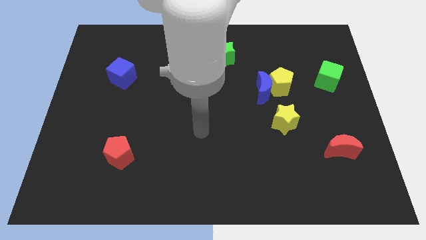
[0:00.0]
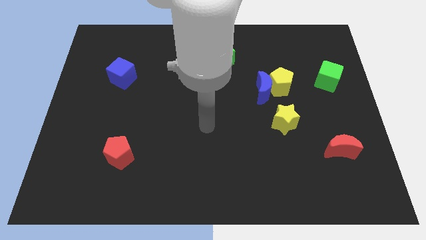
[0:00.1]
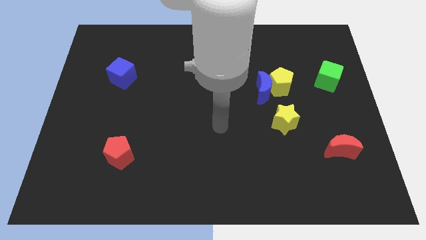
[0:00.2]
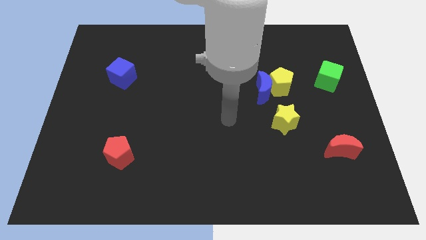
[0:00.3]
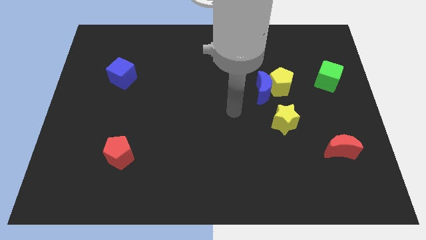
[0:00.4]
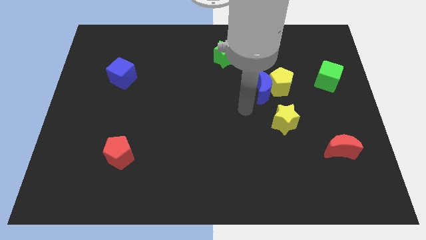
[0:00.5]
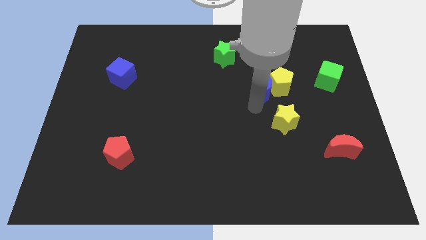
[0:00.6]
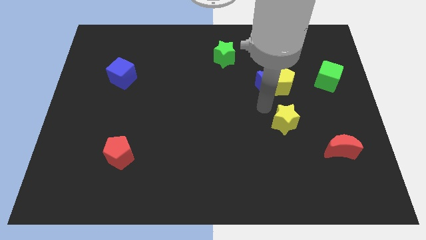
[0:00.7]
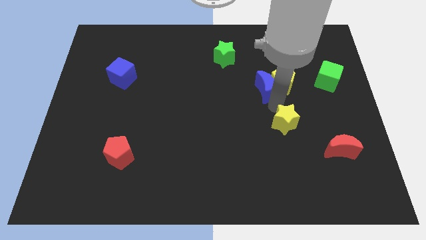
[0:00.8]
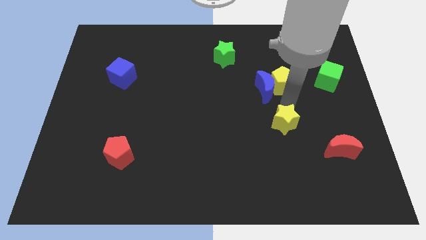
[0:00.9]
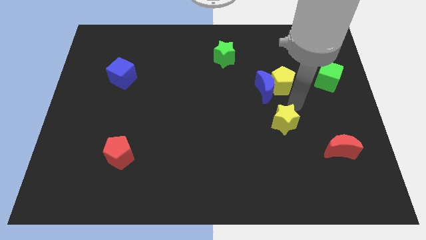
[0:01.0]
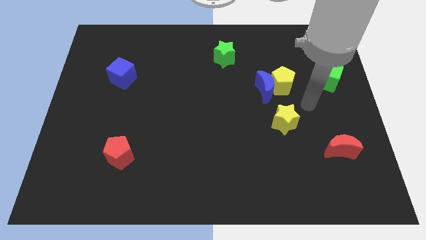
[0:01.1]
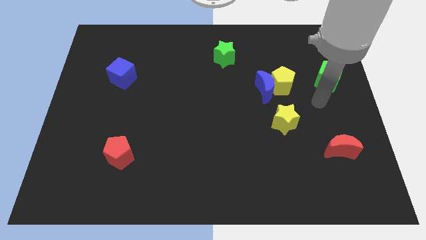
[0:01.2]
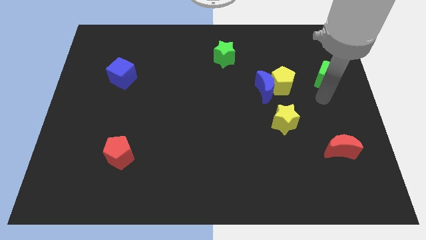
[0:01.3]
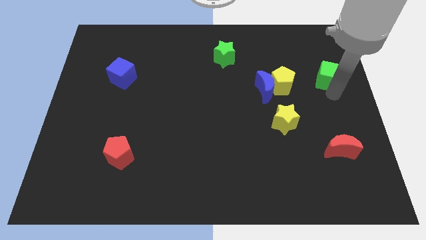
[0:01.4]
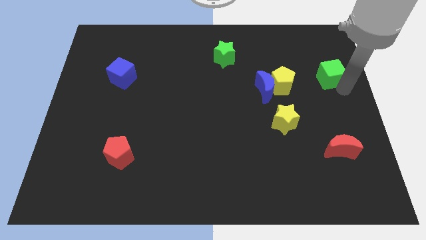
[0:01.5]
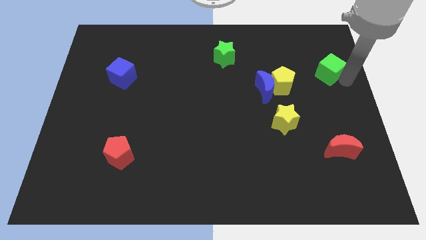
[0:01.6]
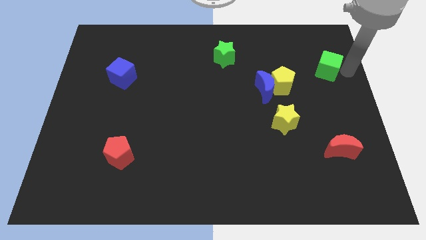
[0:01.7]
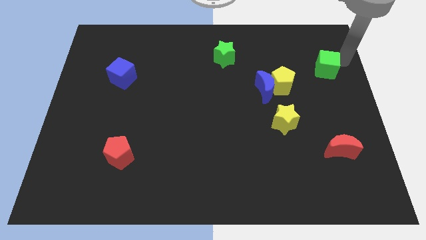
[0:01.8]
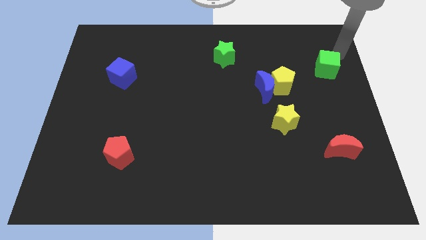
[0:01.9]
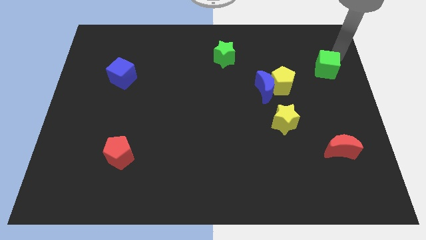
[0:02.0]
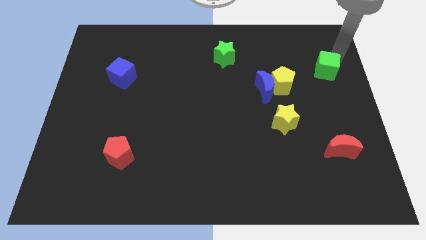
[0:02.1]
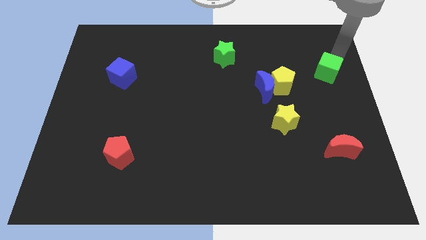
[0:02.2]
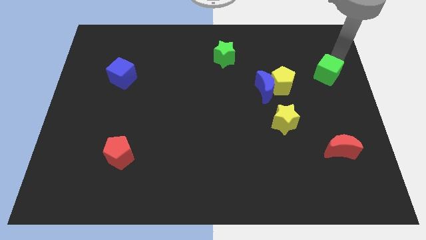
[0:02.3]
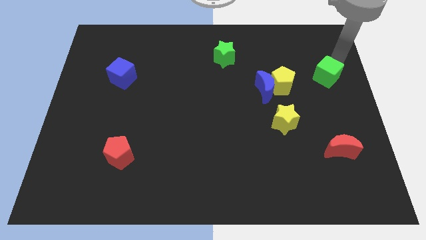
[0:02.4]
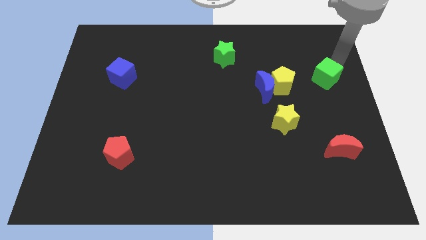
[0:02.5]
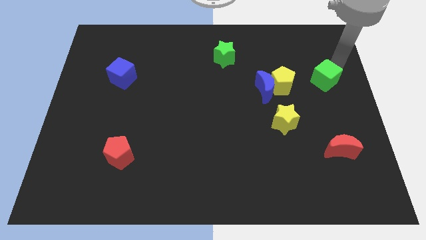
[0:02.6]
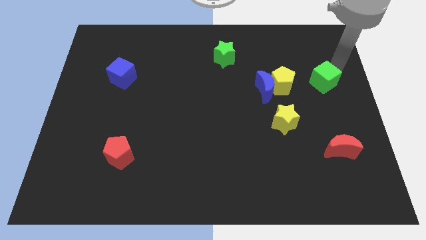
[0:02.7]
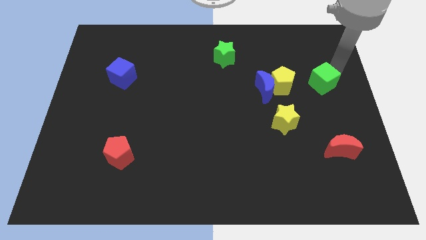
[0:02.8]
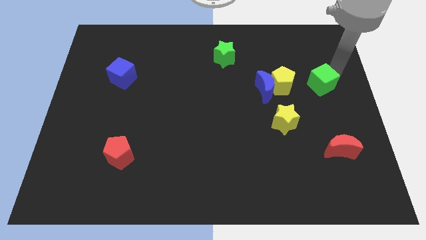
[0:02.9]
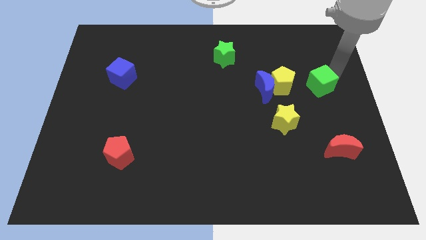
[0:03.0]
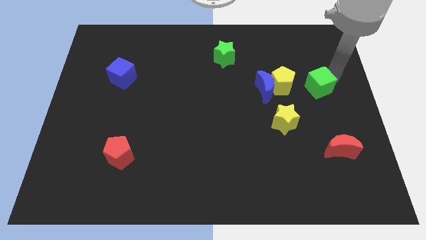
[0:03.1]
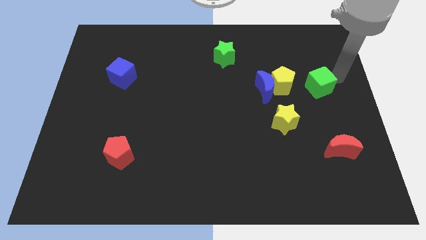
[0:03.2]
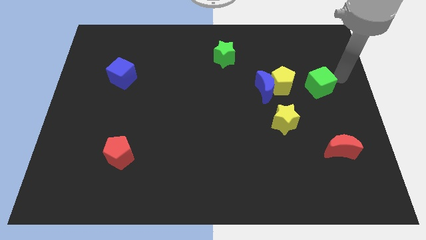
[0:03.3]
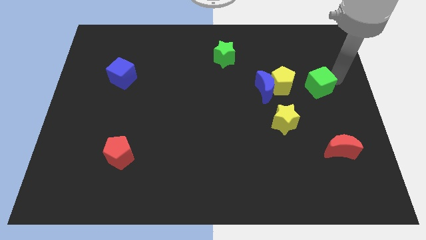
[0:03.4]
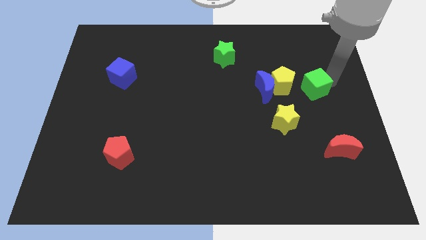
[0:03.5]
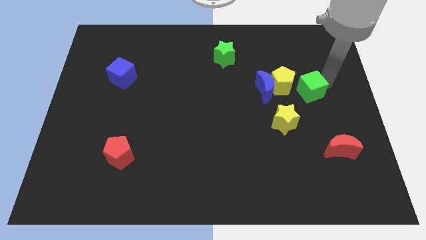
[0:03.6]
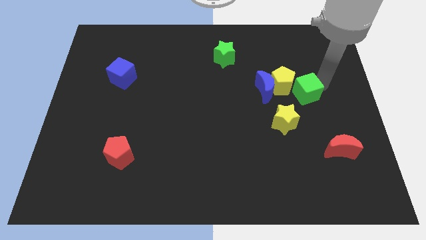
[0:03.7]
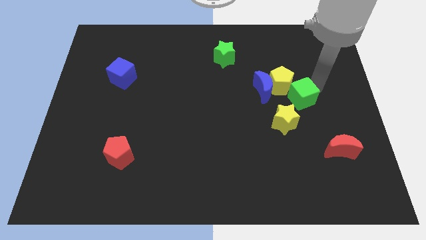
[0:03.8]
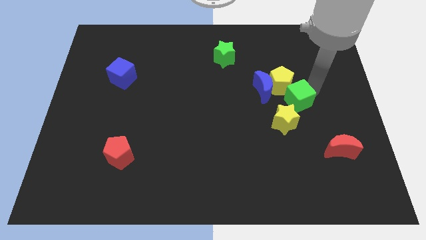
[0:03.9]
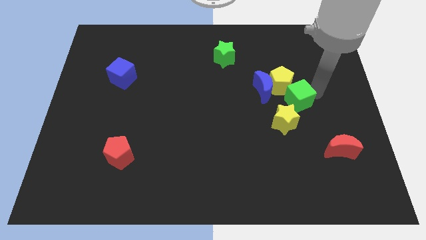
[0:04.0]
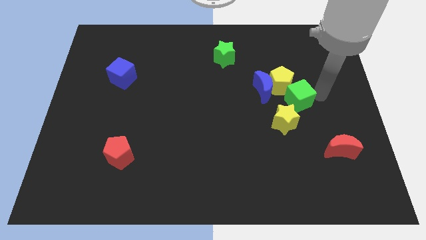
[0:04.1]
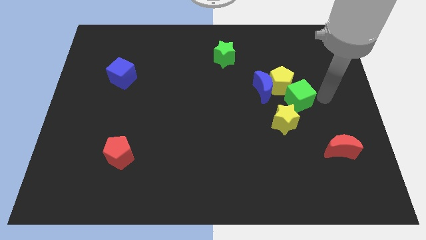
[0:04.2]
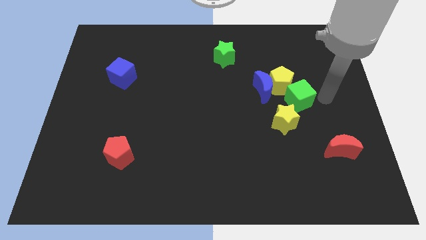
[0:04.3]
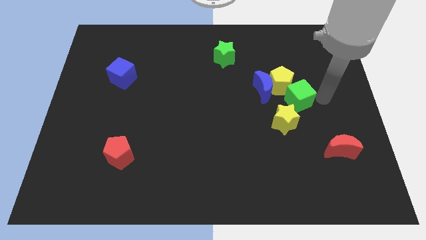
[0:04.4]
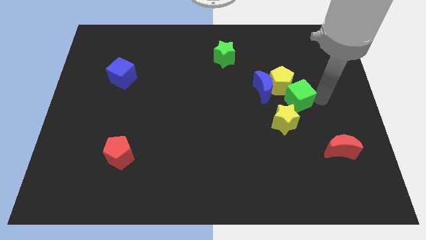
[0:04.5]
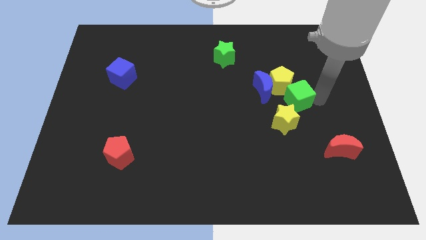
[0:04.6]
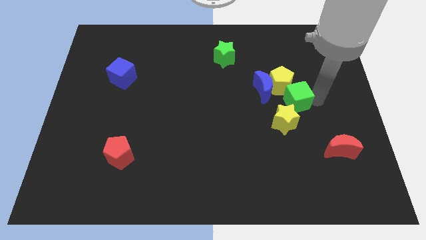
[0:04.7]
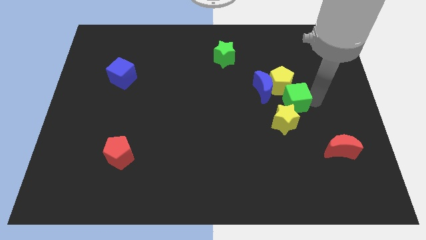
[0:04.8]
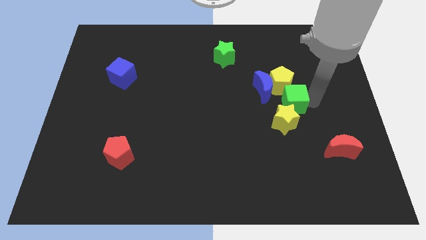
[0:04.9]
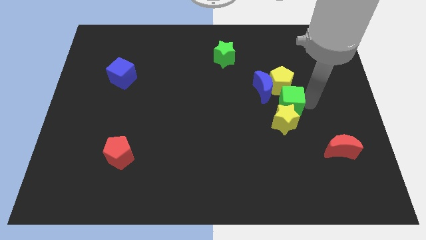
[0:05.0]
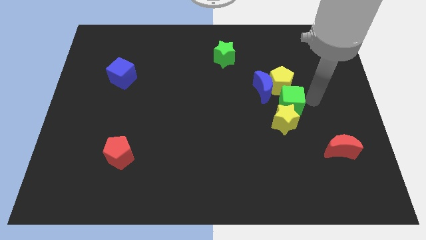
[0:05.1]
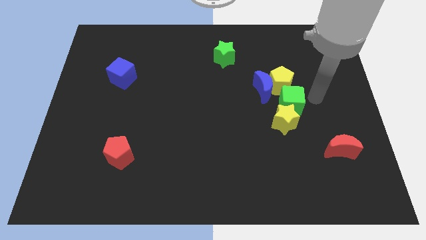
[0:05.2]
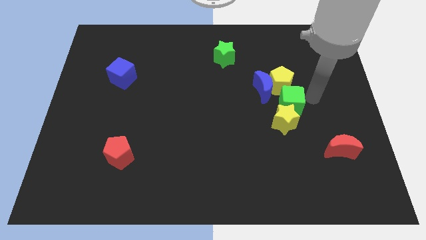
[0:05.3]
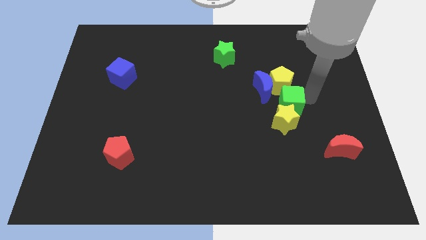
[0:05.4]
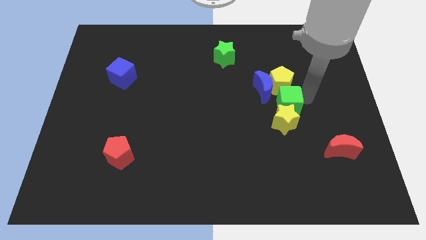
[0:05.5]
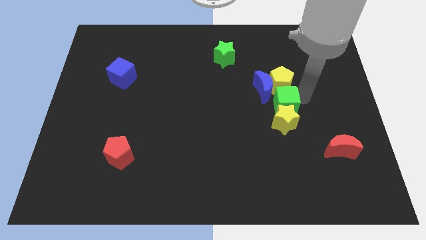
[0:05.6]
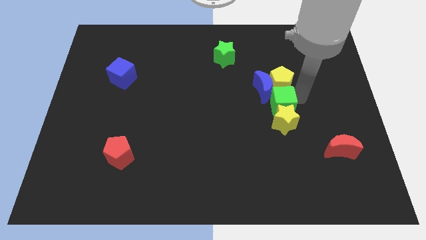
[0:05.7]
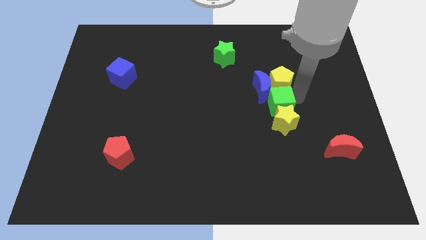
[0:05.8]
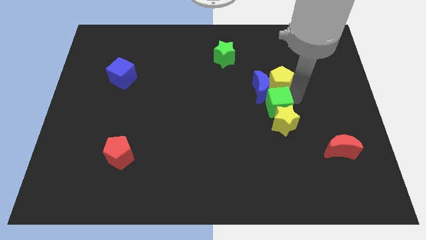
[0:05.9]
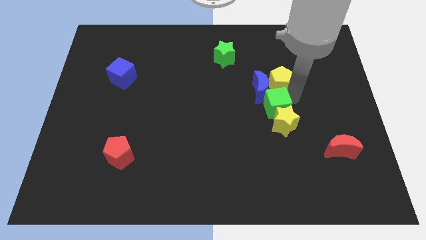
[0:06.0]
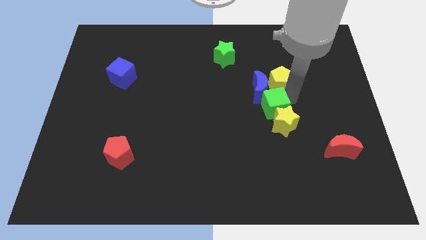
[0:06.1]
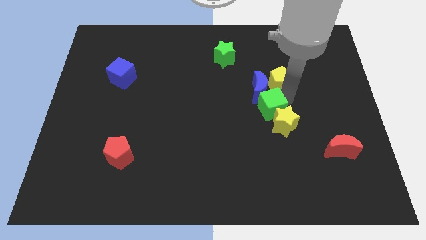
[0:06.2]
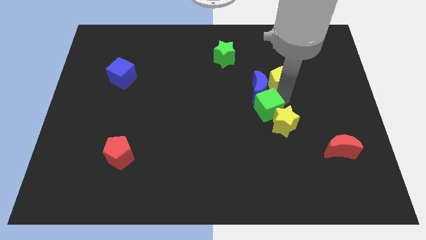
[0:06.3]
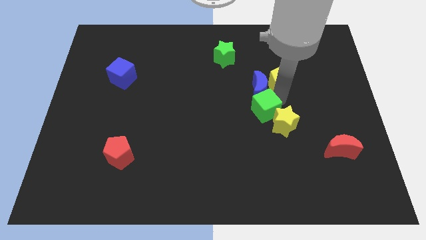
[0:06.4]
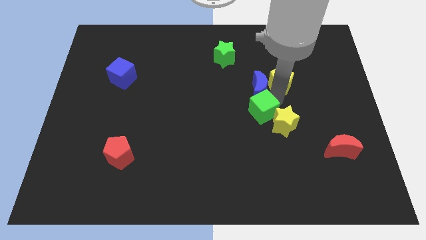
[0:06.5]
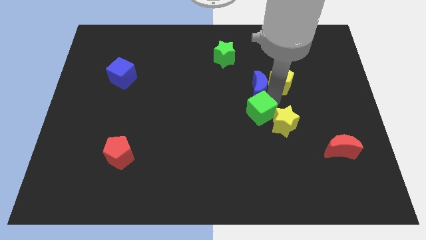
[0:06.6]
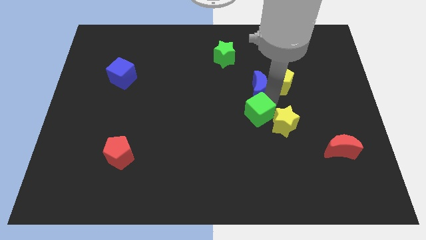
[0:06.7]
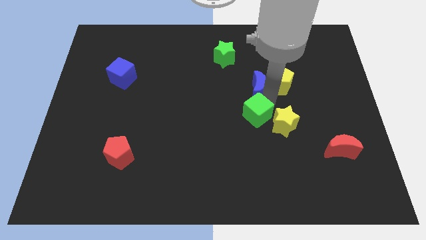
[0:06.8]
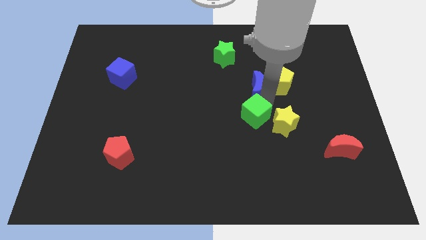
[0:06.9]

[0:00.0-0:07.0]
slide the green cube down and then left

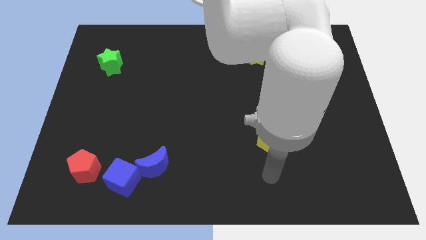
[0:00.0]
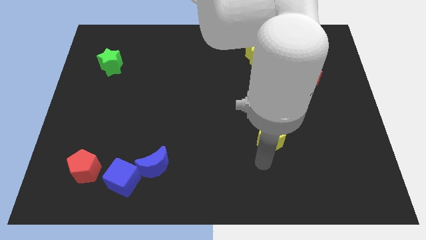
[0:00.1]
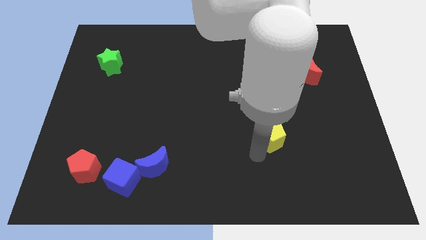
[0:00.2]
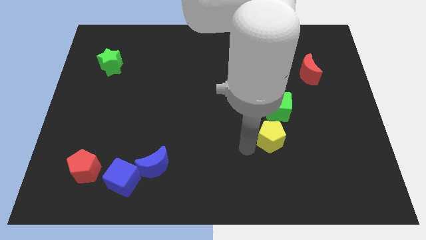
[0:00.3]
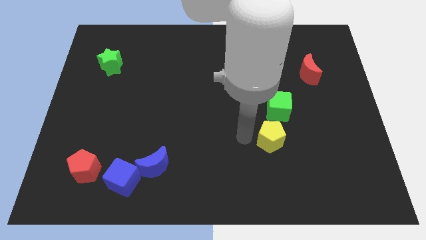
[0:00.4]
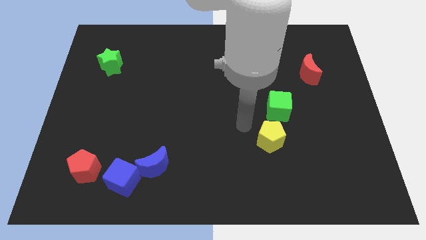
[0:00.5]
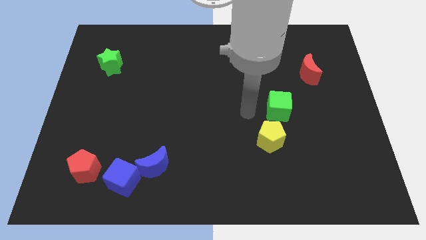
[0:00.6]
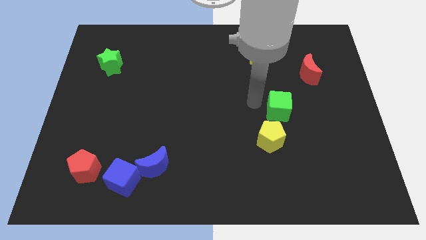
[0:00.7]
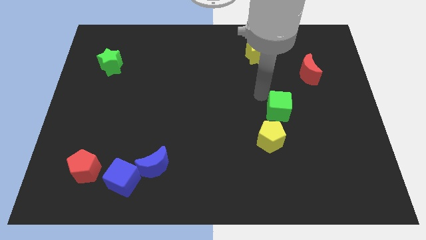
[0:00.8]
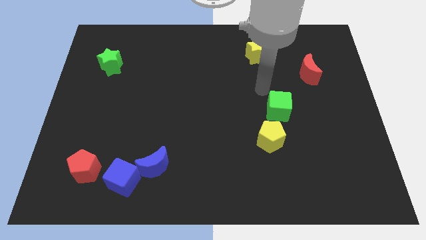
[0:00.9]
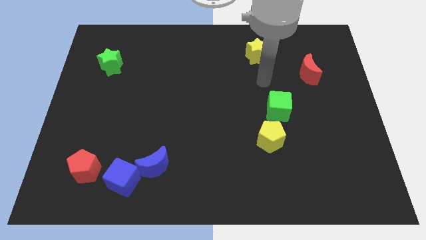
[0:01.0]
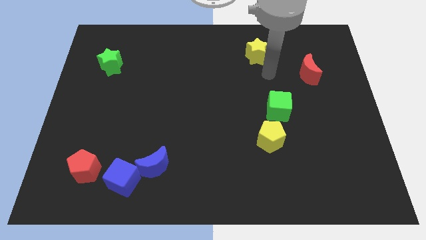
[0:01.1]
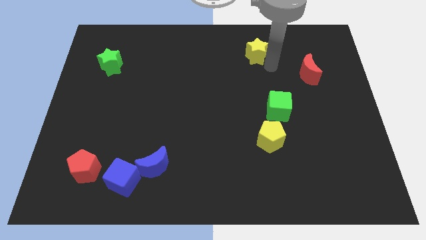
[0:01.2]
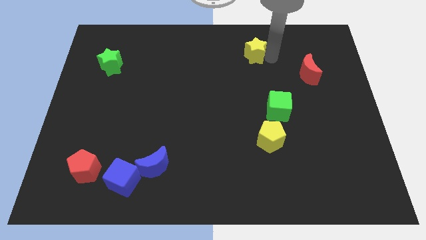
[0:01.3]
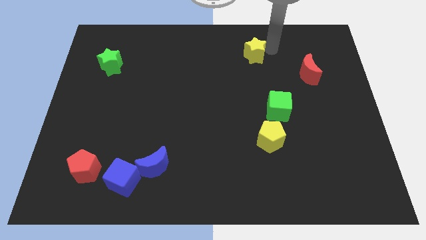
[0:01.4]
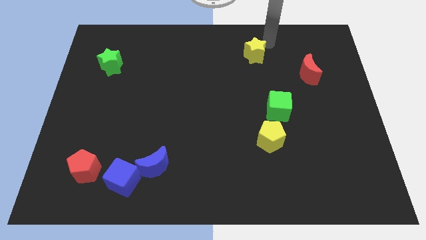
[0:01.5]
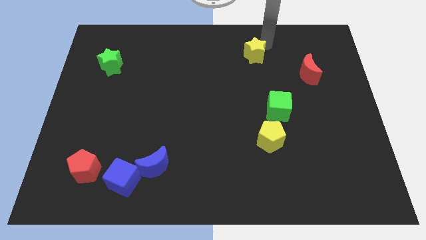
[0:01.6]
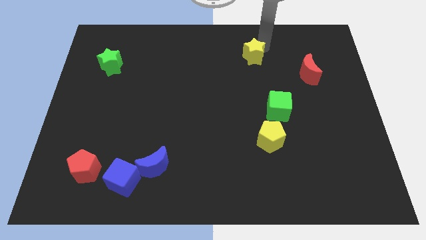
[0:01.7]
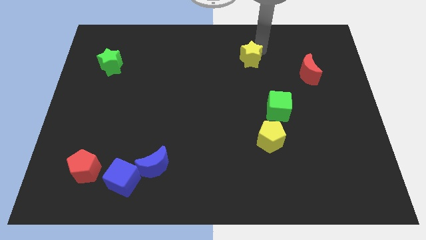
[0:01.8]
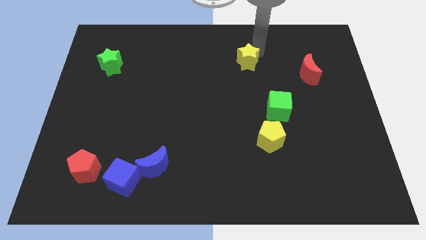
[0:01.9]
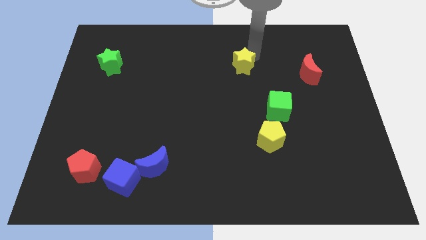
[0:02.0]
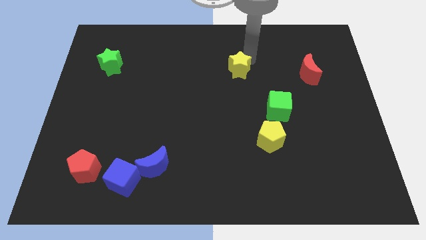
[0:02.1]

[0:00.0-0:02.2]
push the yellow star a little down and to the left
